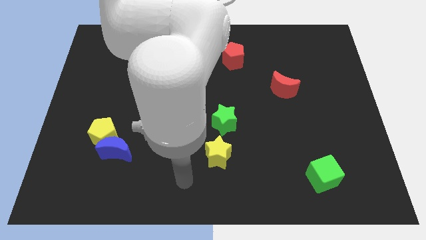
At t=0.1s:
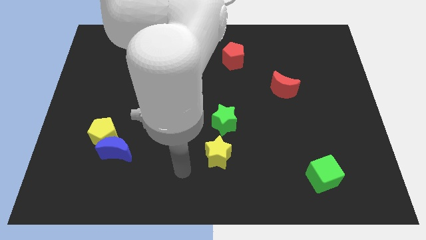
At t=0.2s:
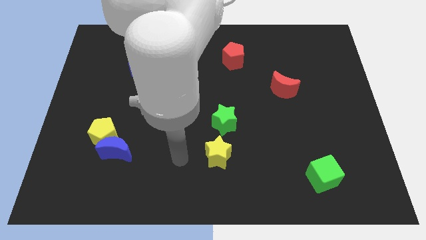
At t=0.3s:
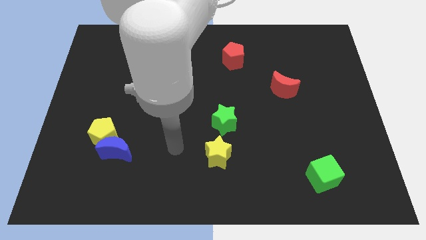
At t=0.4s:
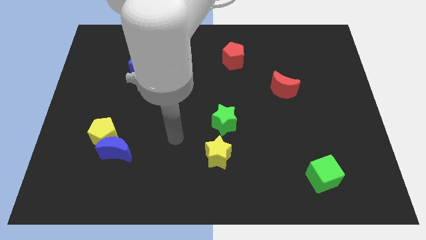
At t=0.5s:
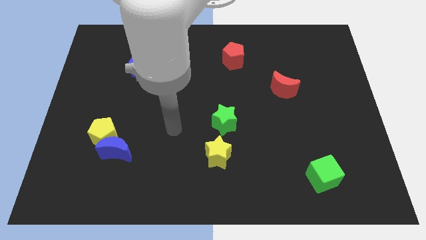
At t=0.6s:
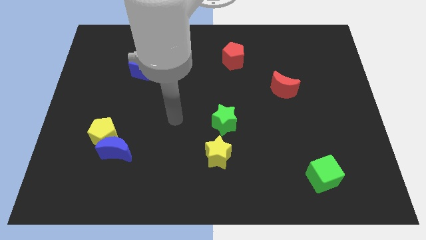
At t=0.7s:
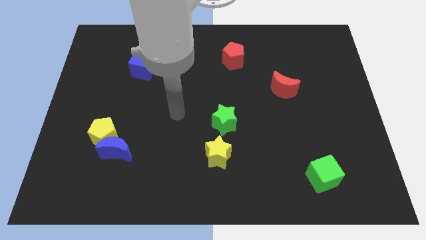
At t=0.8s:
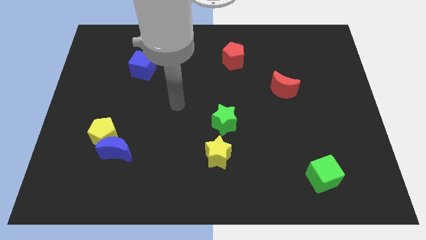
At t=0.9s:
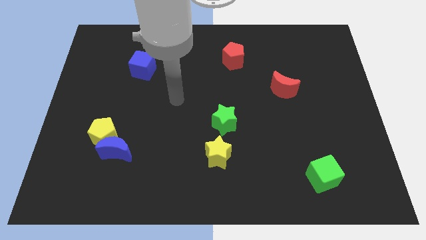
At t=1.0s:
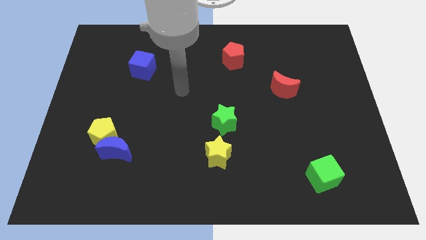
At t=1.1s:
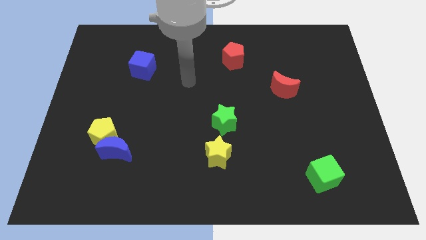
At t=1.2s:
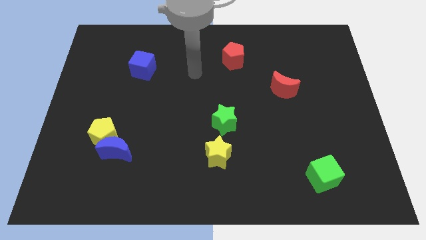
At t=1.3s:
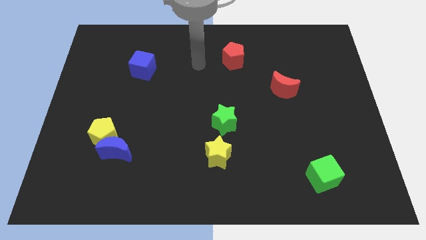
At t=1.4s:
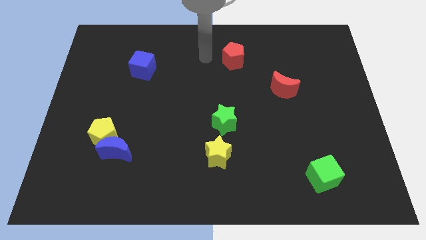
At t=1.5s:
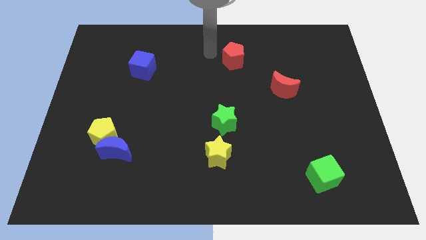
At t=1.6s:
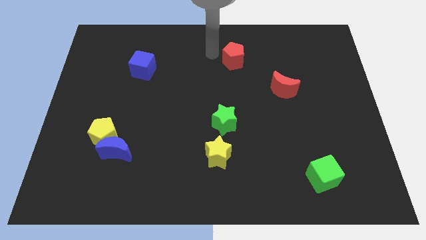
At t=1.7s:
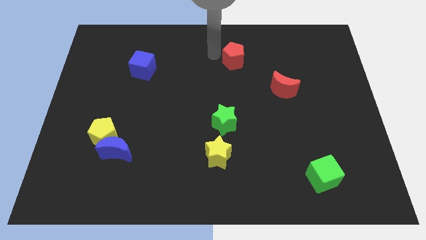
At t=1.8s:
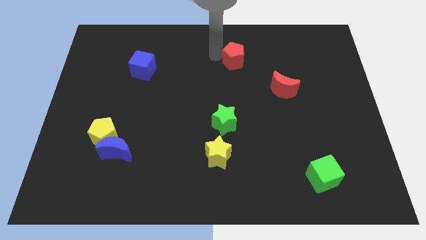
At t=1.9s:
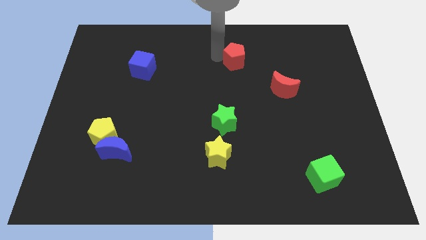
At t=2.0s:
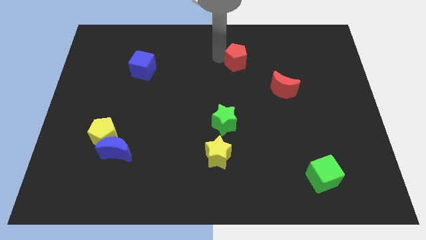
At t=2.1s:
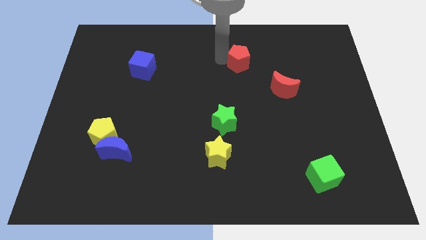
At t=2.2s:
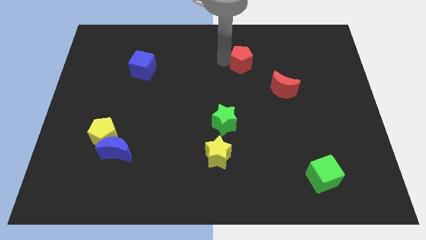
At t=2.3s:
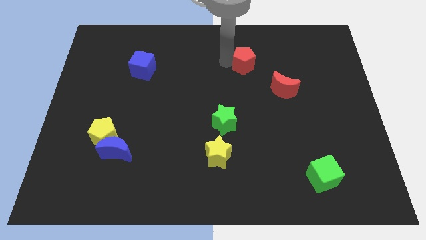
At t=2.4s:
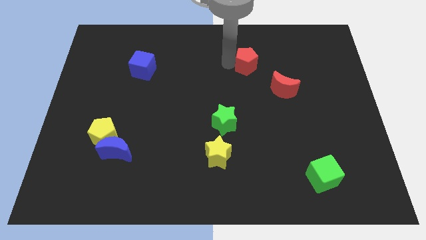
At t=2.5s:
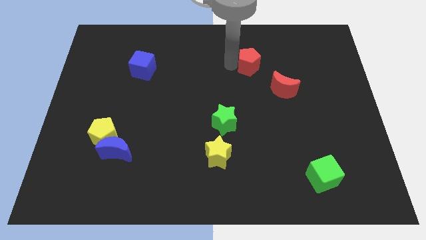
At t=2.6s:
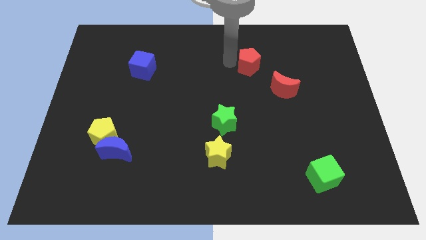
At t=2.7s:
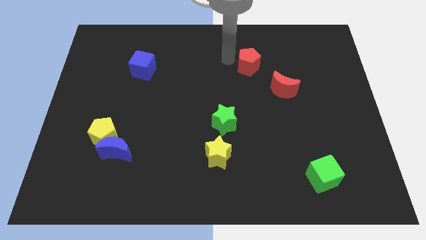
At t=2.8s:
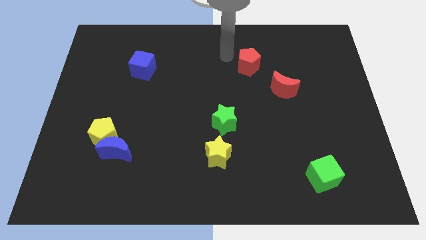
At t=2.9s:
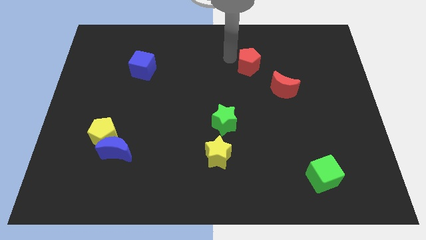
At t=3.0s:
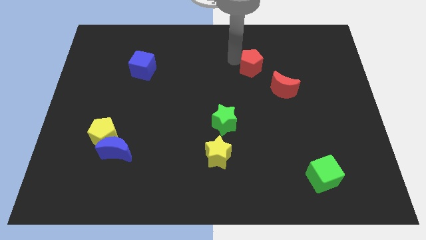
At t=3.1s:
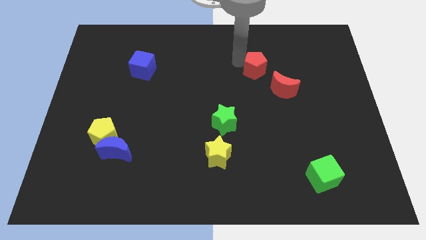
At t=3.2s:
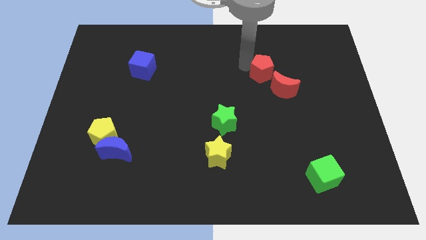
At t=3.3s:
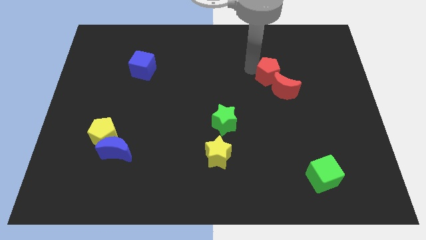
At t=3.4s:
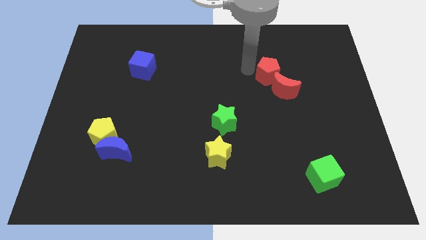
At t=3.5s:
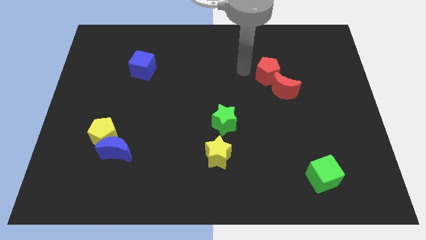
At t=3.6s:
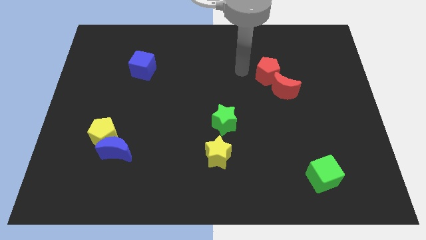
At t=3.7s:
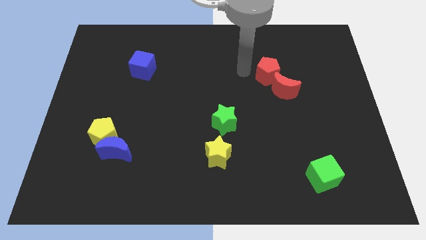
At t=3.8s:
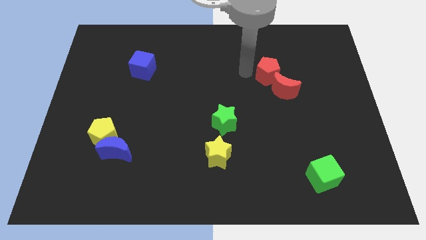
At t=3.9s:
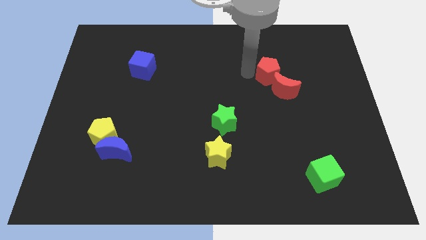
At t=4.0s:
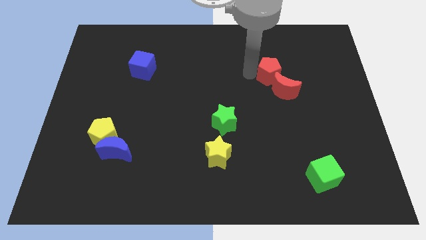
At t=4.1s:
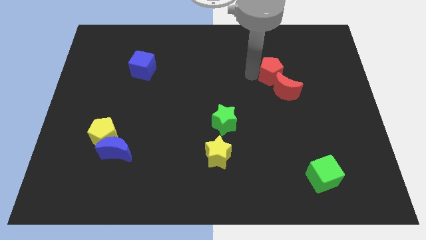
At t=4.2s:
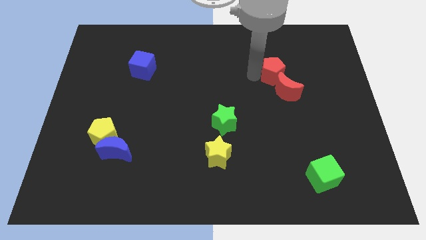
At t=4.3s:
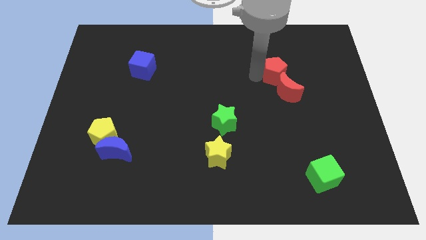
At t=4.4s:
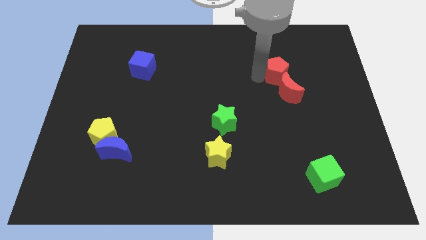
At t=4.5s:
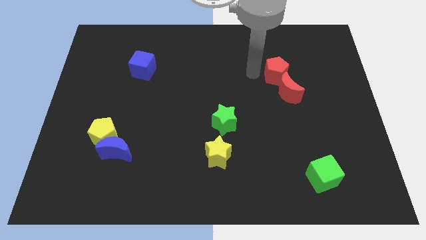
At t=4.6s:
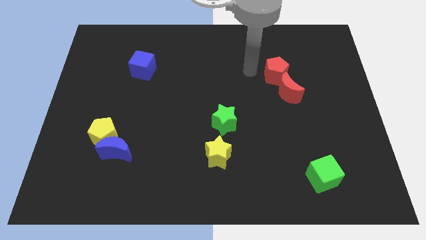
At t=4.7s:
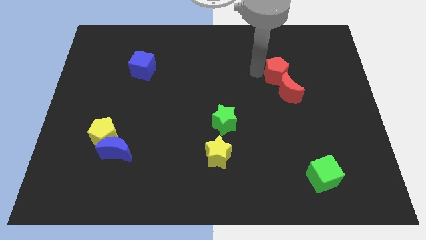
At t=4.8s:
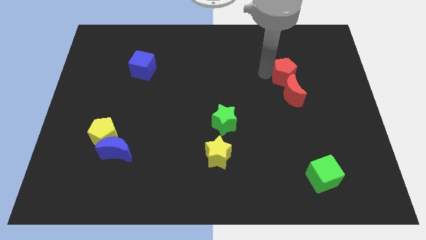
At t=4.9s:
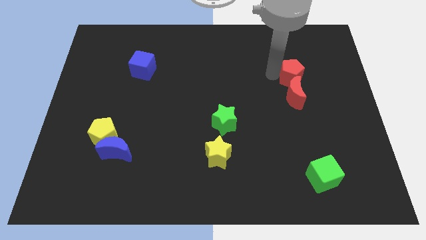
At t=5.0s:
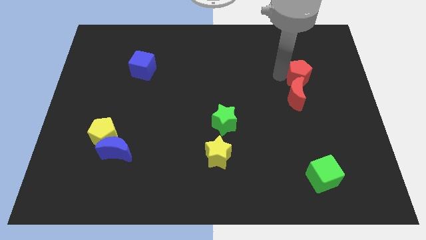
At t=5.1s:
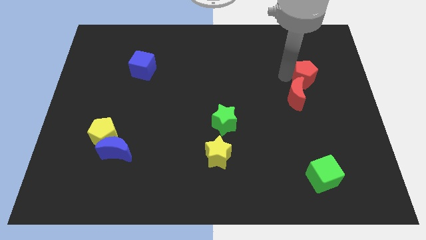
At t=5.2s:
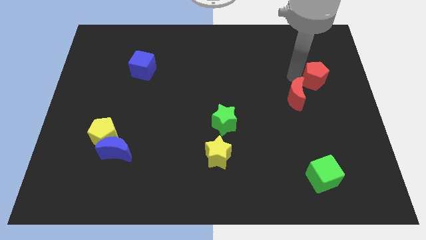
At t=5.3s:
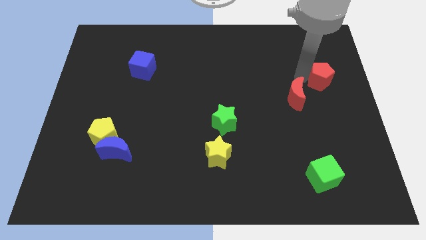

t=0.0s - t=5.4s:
slide the red pentagon to the right side

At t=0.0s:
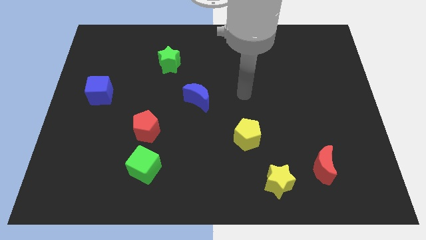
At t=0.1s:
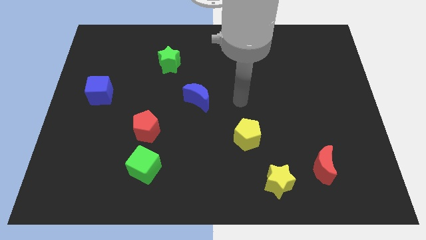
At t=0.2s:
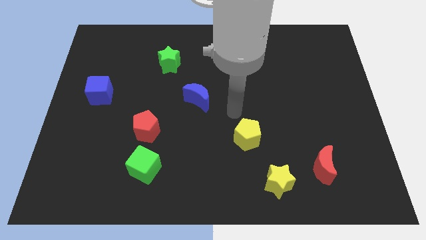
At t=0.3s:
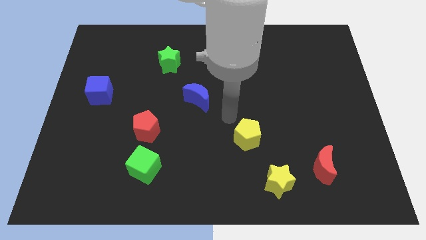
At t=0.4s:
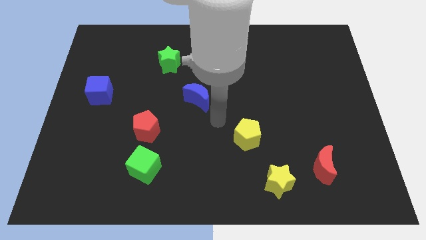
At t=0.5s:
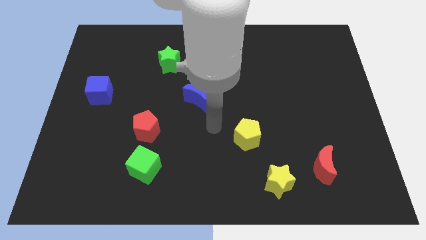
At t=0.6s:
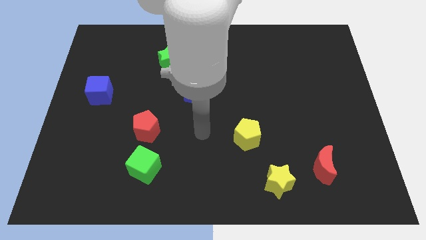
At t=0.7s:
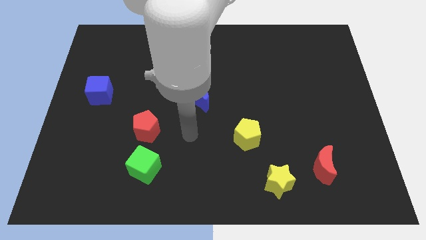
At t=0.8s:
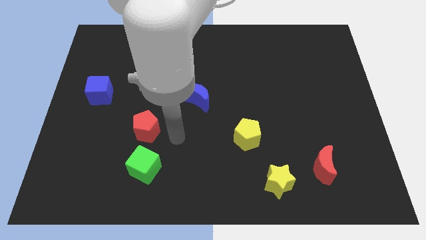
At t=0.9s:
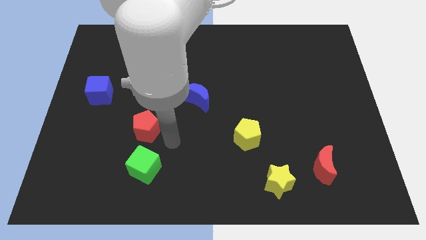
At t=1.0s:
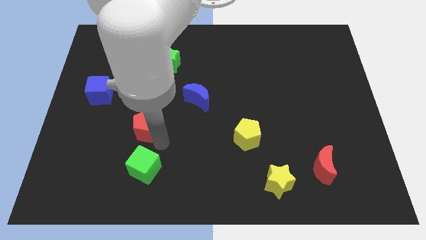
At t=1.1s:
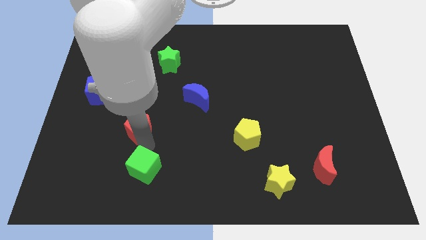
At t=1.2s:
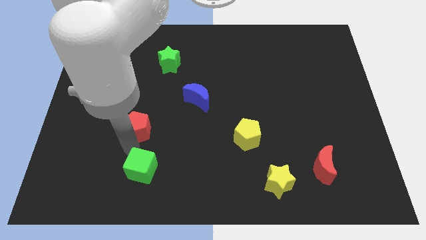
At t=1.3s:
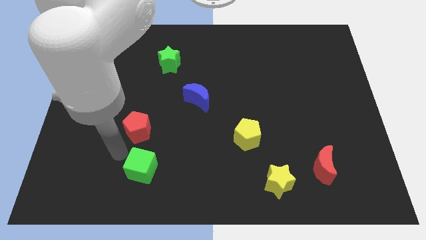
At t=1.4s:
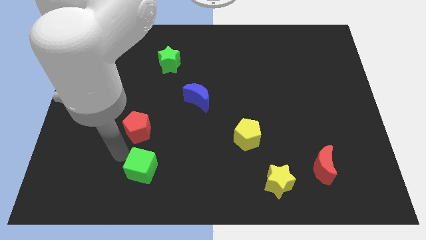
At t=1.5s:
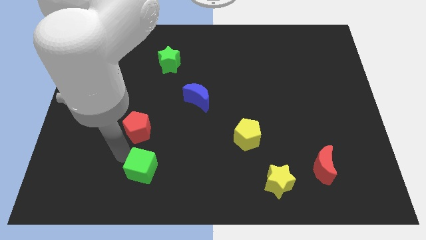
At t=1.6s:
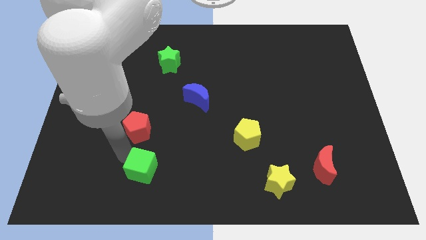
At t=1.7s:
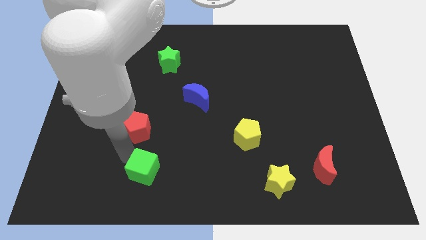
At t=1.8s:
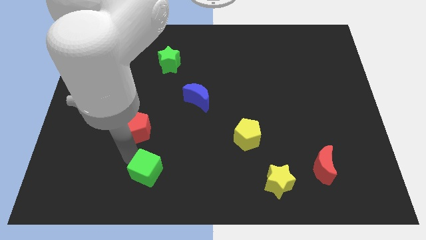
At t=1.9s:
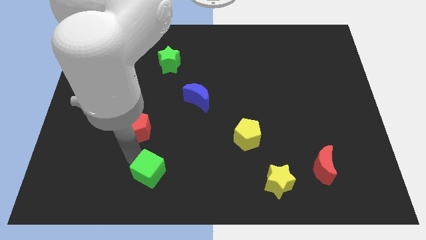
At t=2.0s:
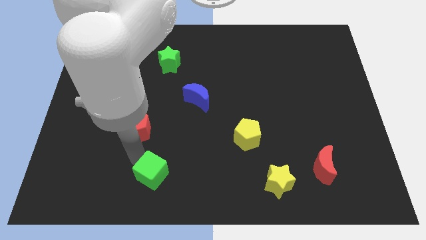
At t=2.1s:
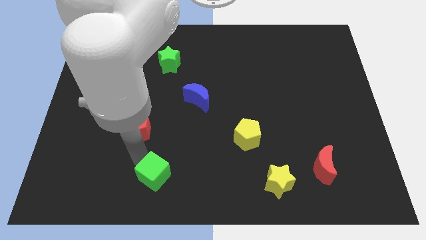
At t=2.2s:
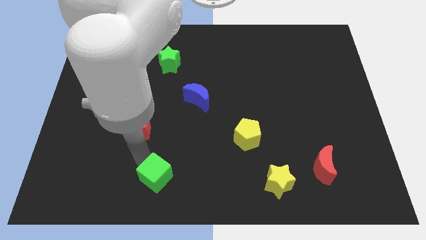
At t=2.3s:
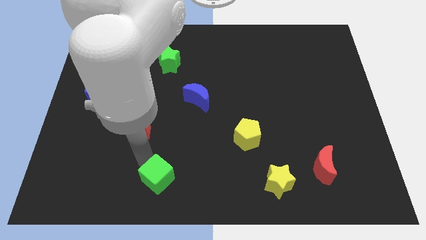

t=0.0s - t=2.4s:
push the green cube to the bottom
